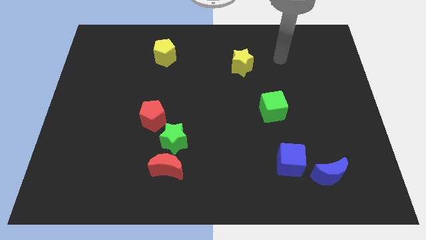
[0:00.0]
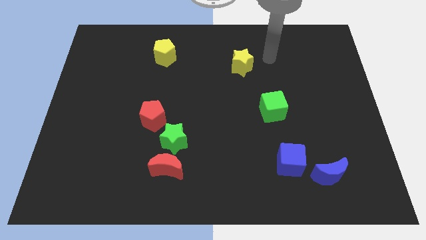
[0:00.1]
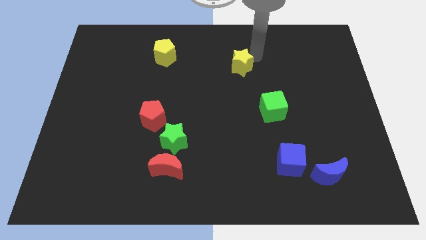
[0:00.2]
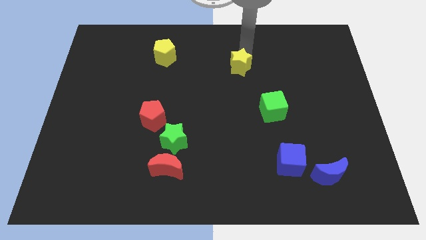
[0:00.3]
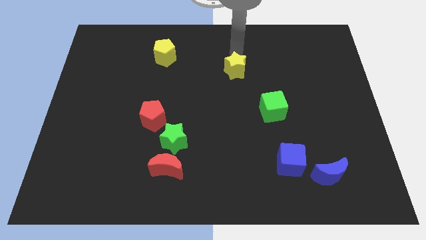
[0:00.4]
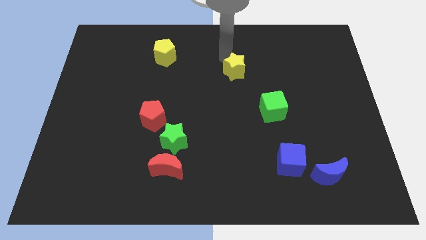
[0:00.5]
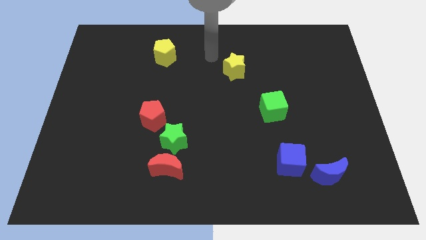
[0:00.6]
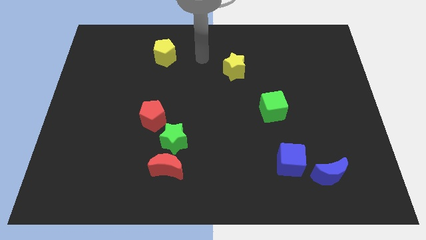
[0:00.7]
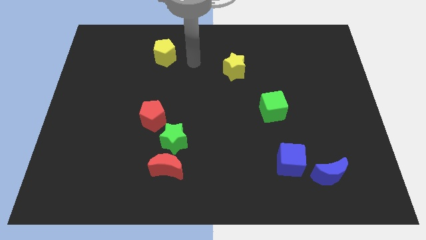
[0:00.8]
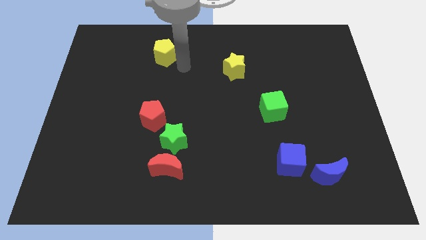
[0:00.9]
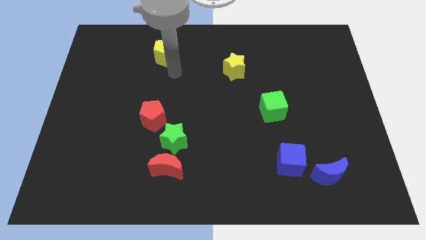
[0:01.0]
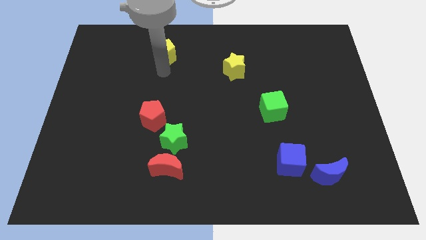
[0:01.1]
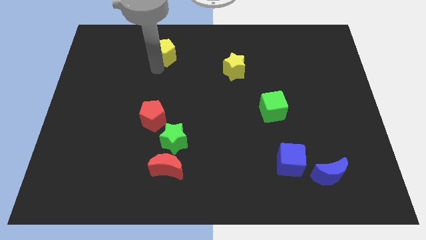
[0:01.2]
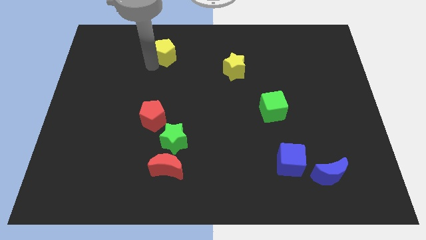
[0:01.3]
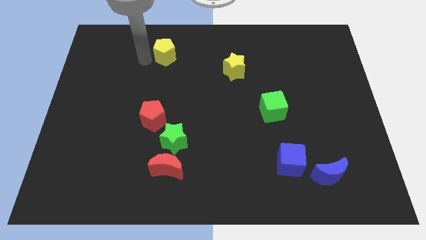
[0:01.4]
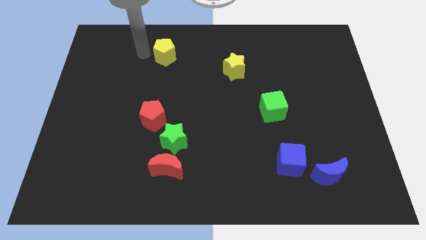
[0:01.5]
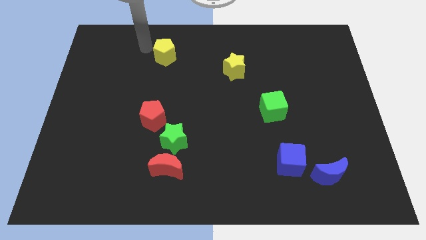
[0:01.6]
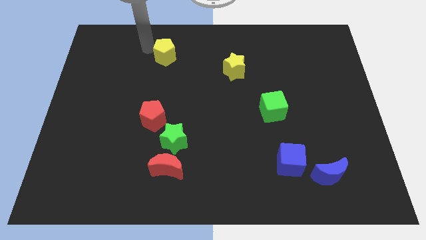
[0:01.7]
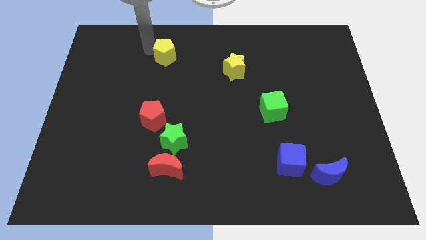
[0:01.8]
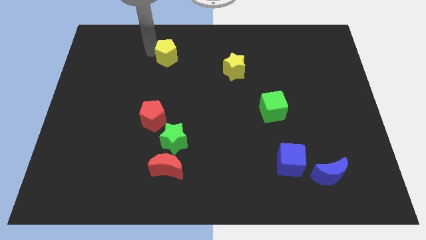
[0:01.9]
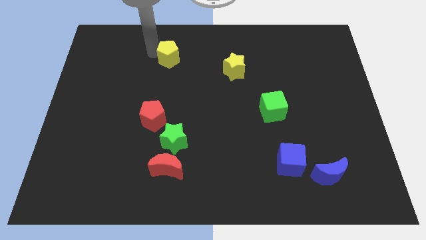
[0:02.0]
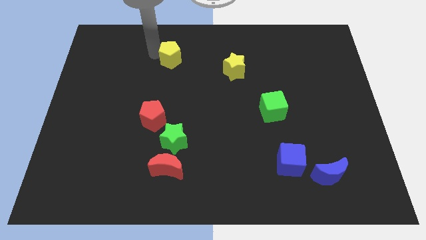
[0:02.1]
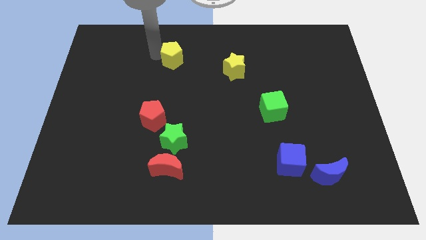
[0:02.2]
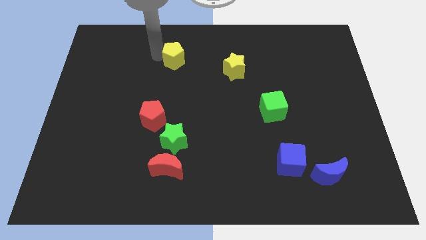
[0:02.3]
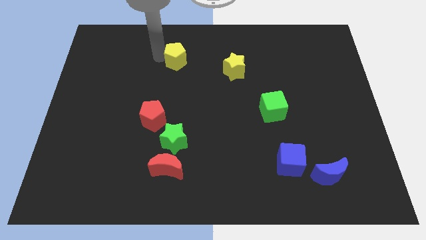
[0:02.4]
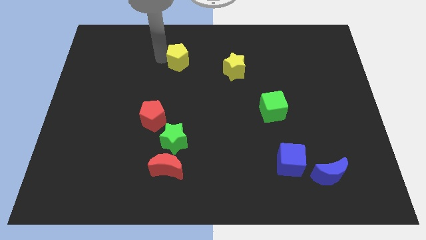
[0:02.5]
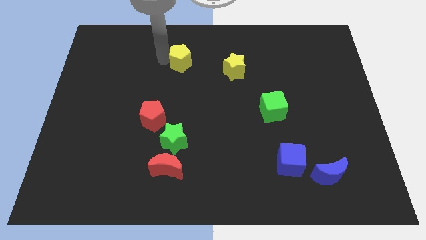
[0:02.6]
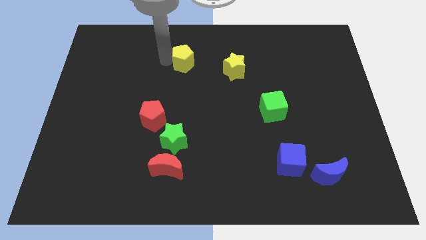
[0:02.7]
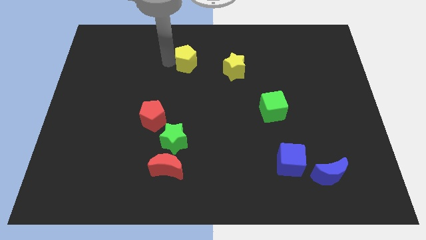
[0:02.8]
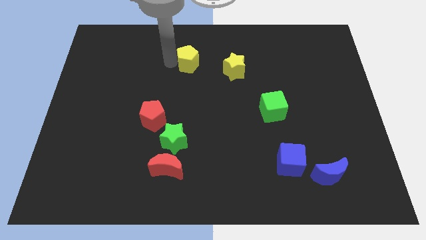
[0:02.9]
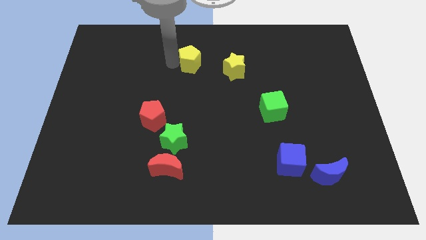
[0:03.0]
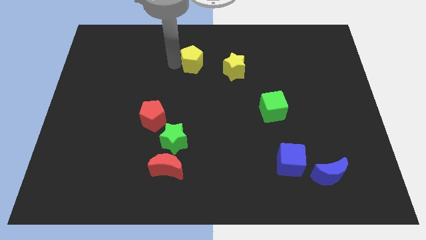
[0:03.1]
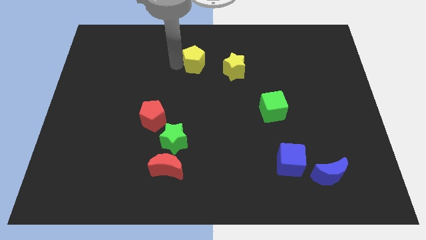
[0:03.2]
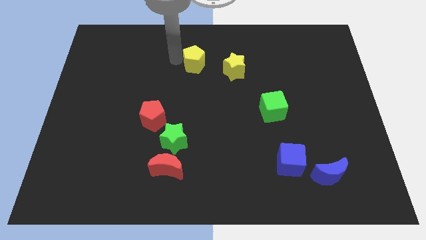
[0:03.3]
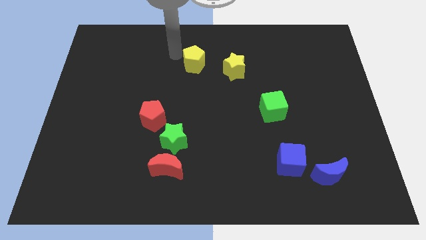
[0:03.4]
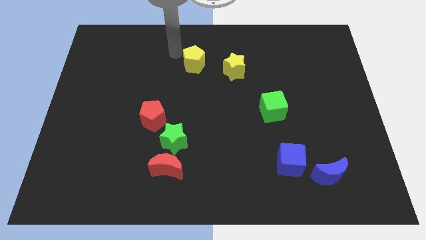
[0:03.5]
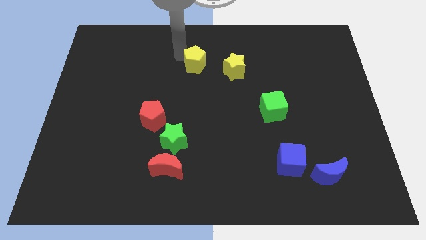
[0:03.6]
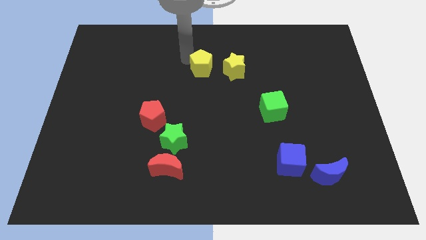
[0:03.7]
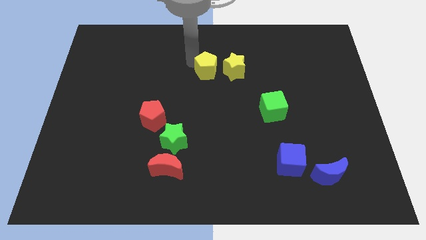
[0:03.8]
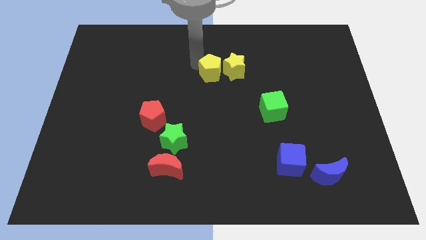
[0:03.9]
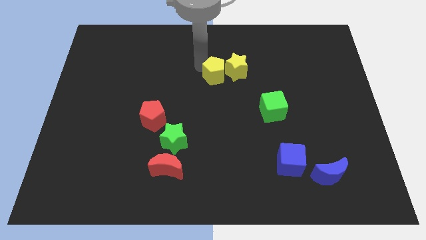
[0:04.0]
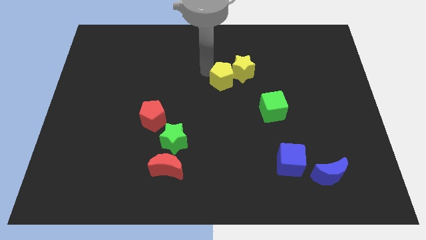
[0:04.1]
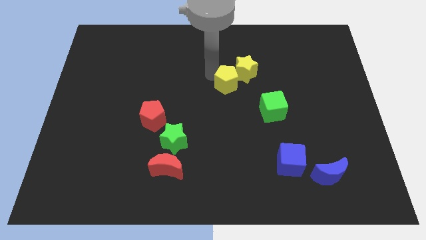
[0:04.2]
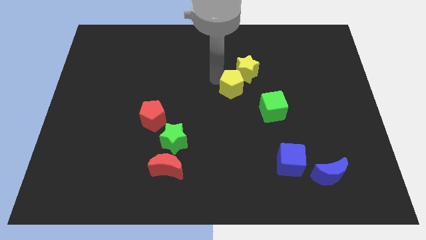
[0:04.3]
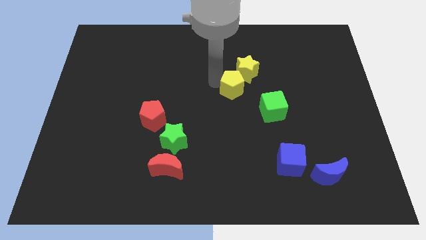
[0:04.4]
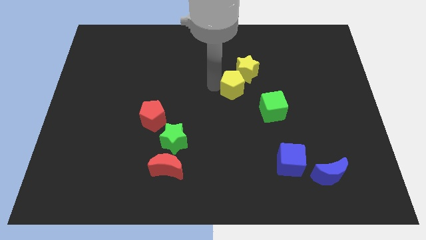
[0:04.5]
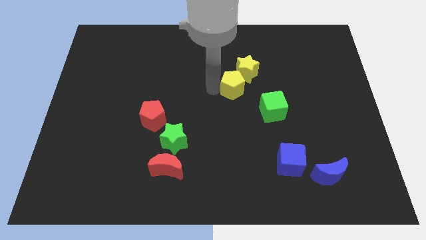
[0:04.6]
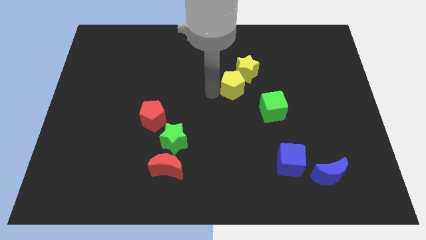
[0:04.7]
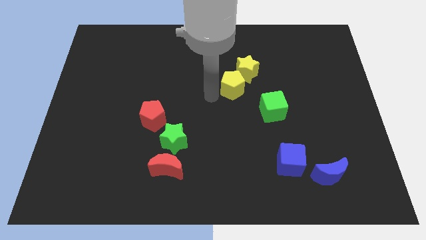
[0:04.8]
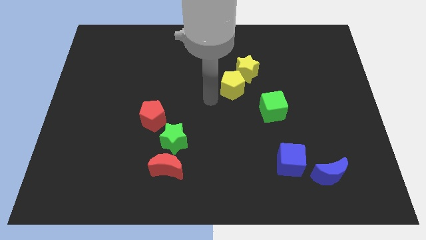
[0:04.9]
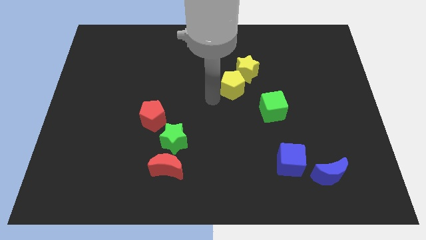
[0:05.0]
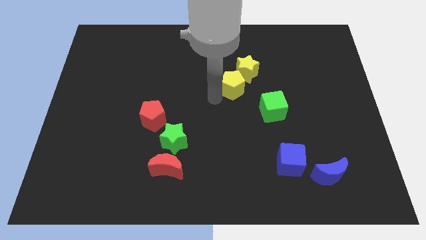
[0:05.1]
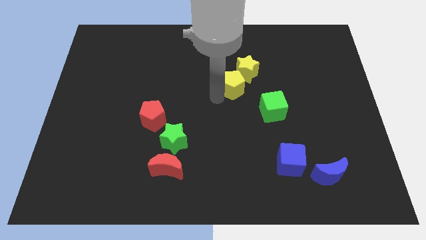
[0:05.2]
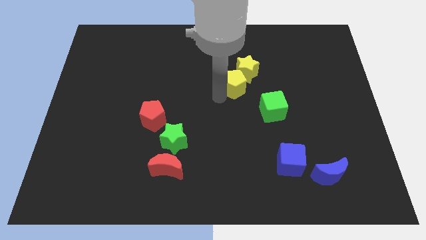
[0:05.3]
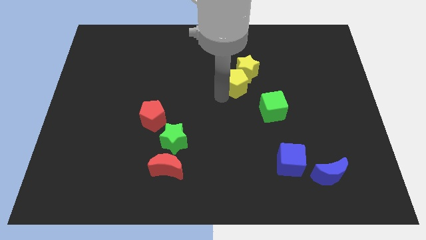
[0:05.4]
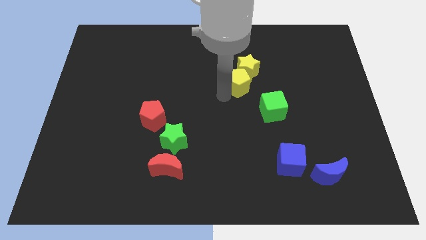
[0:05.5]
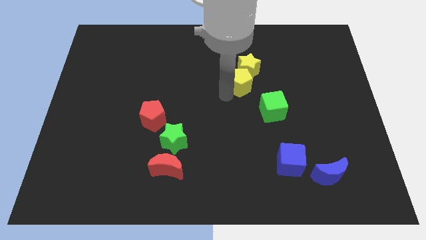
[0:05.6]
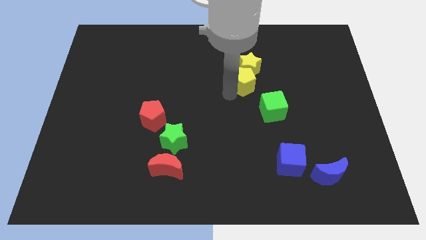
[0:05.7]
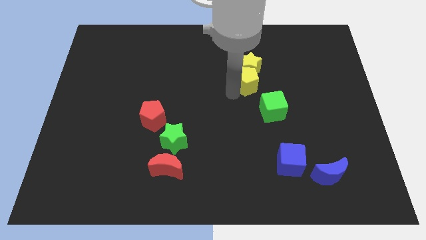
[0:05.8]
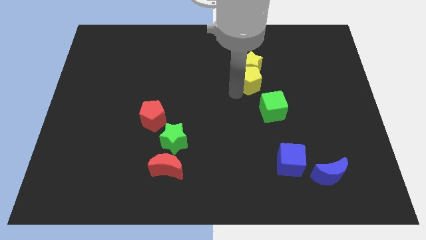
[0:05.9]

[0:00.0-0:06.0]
push the yellow pentagon to the top of the green cube

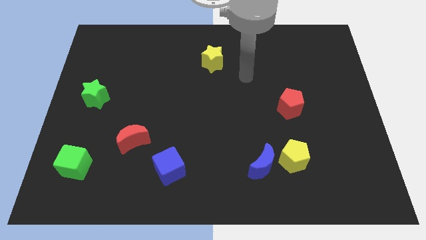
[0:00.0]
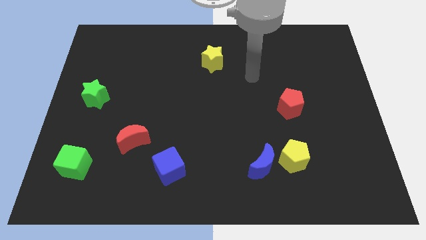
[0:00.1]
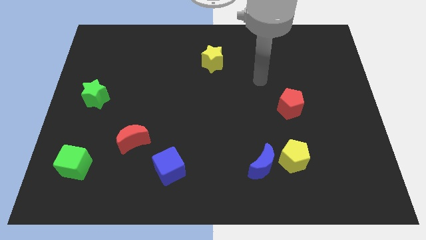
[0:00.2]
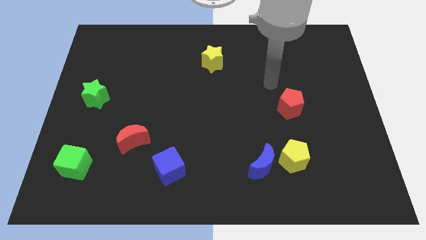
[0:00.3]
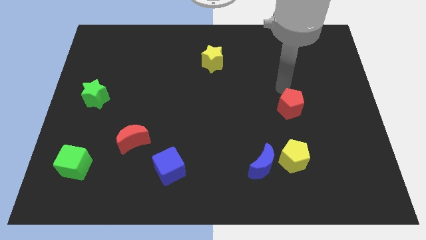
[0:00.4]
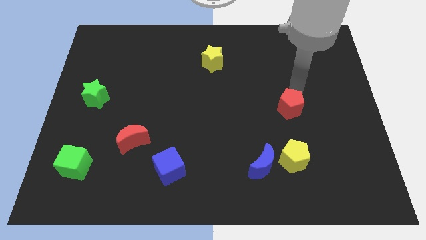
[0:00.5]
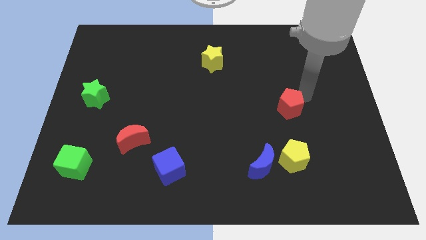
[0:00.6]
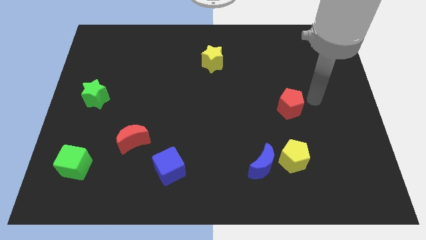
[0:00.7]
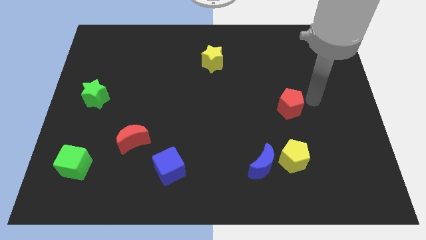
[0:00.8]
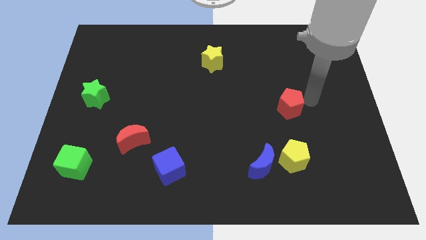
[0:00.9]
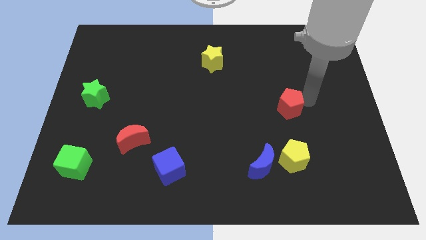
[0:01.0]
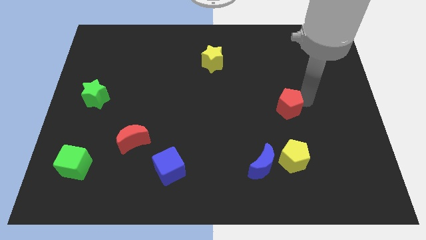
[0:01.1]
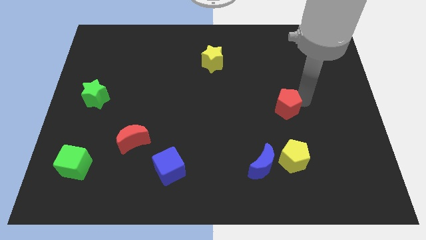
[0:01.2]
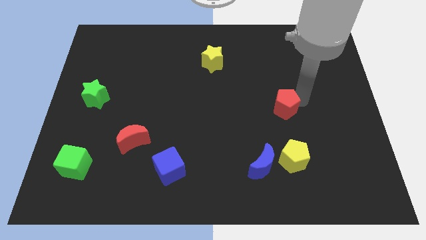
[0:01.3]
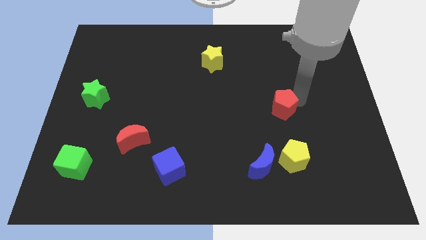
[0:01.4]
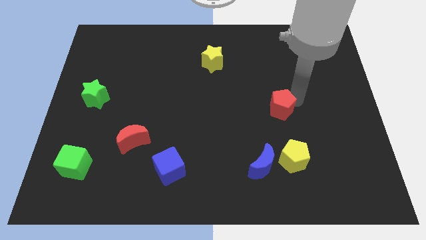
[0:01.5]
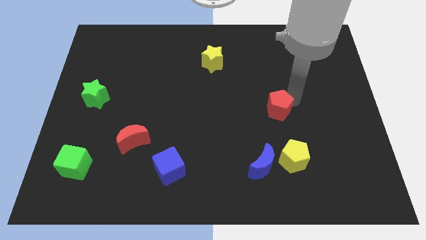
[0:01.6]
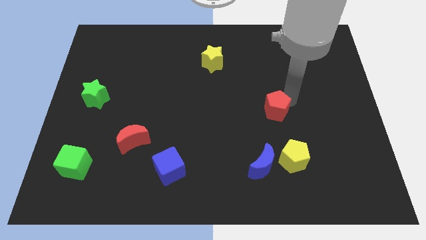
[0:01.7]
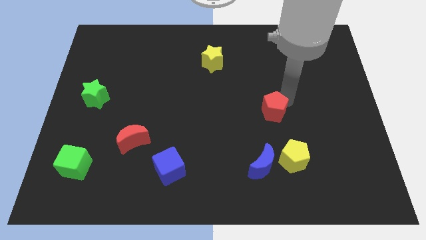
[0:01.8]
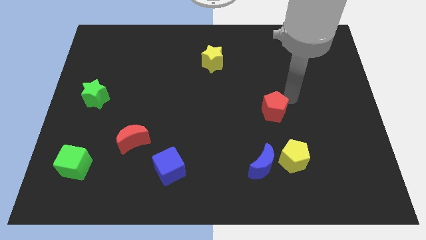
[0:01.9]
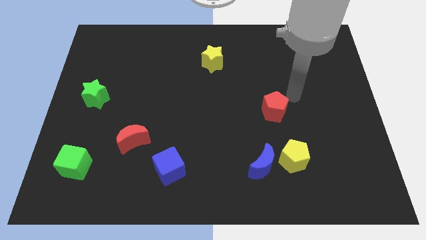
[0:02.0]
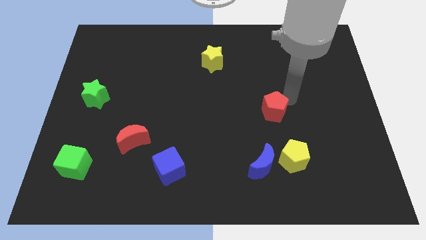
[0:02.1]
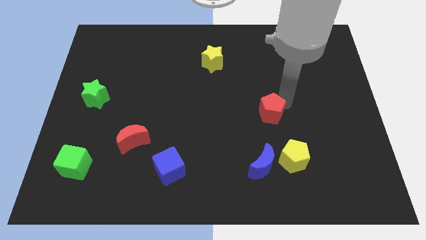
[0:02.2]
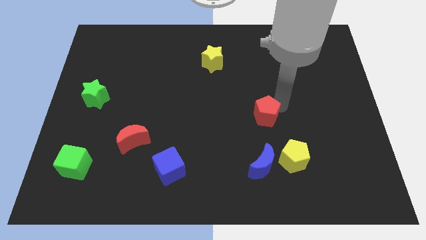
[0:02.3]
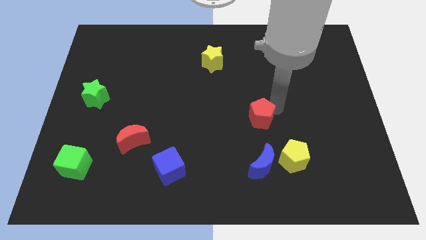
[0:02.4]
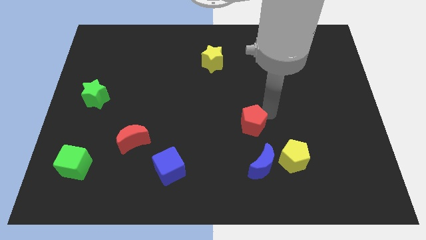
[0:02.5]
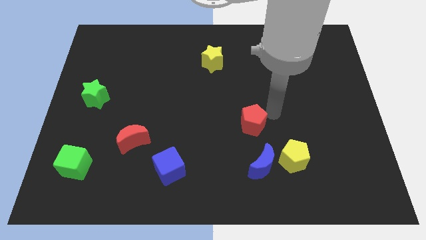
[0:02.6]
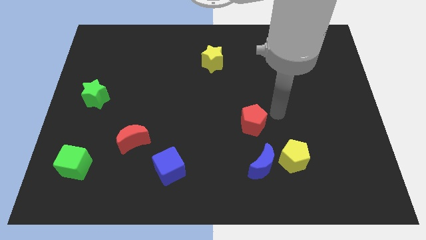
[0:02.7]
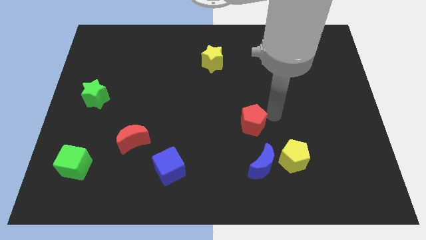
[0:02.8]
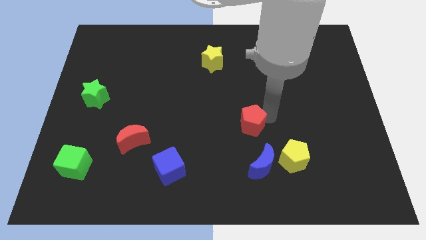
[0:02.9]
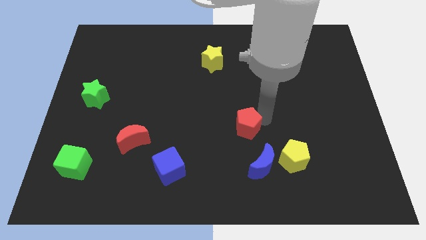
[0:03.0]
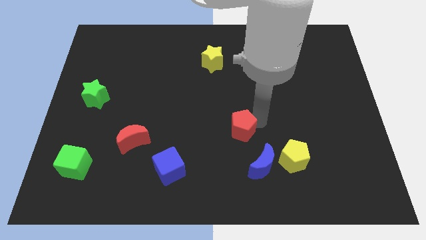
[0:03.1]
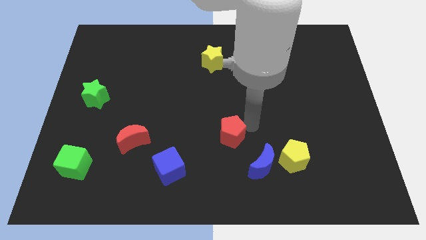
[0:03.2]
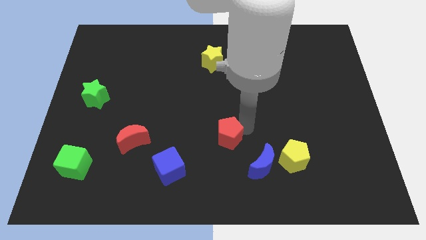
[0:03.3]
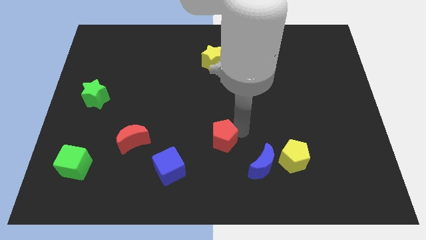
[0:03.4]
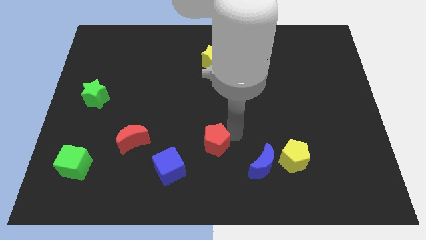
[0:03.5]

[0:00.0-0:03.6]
push the red pentagon diagonally up and to the right of the blue cube
